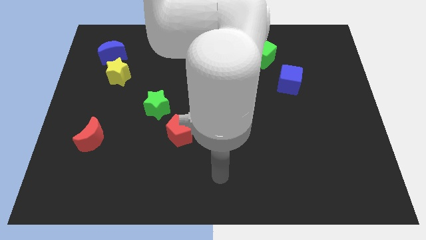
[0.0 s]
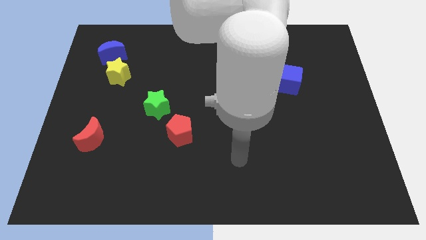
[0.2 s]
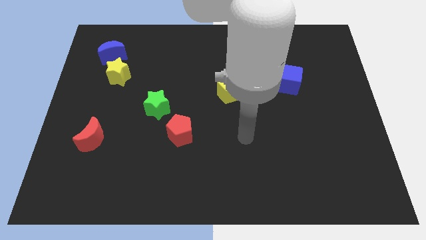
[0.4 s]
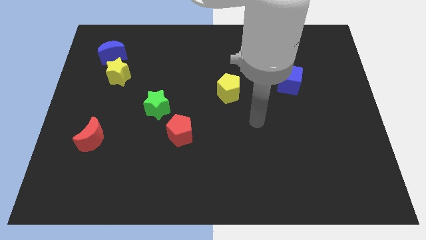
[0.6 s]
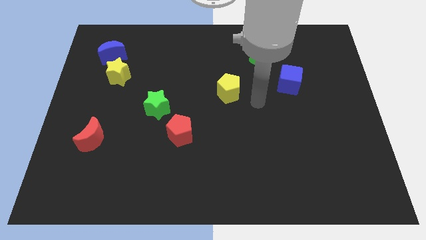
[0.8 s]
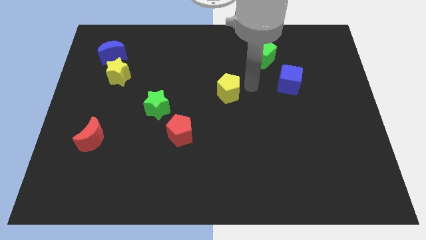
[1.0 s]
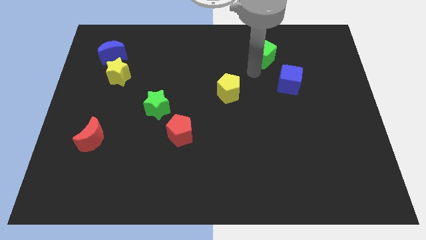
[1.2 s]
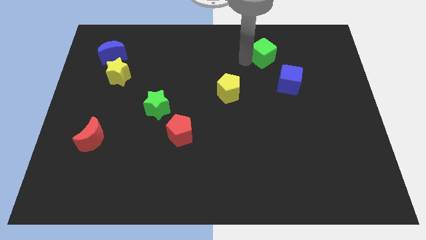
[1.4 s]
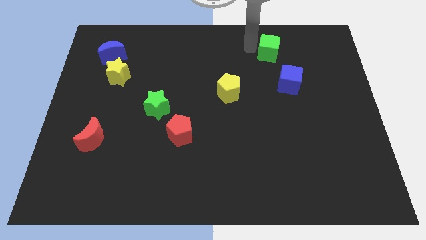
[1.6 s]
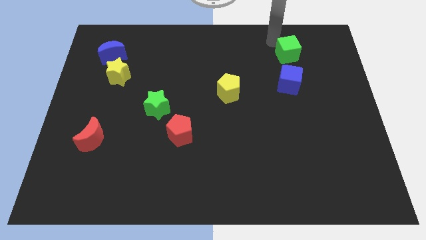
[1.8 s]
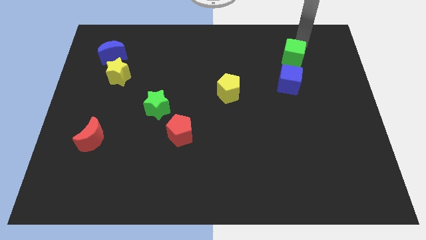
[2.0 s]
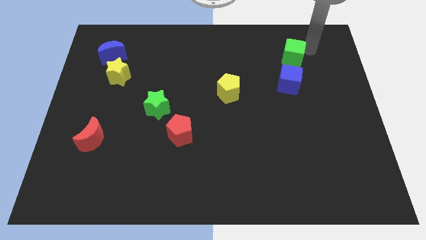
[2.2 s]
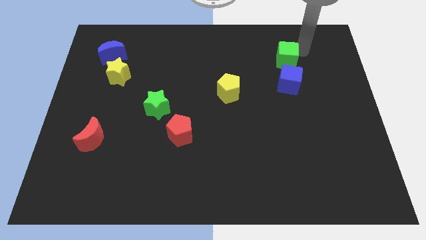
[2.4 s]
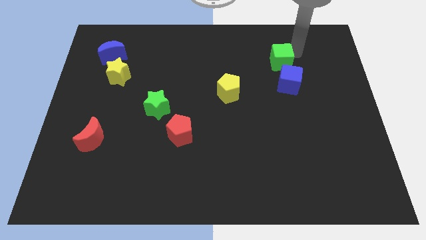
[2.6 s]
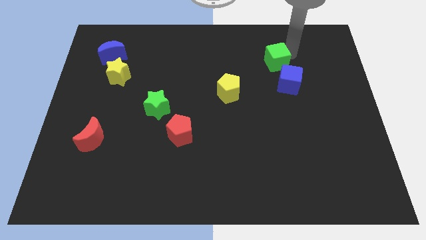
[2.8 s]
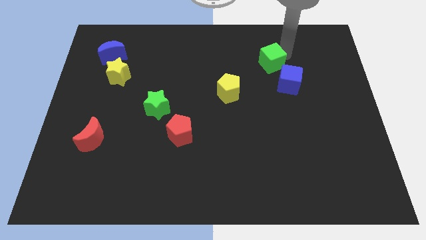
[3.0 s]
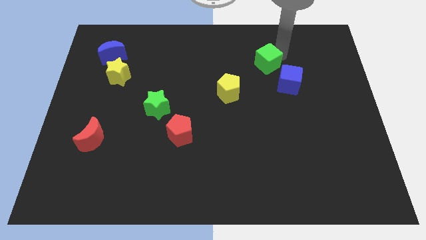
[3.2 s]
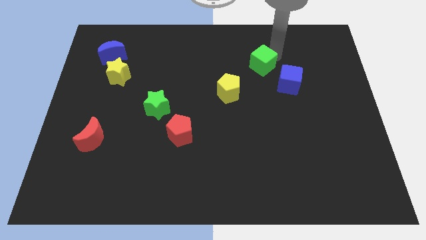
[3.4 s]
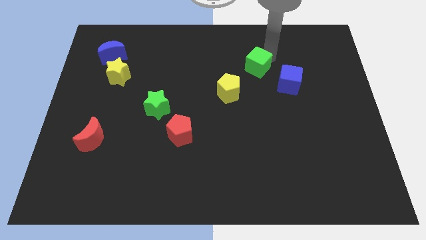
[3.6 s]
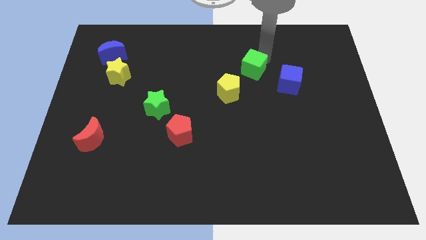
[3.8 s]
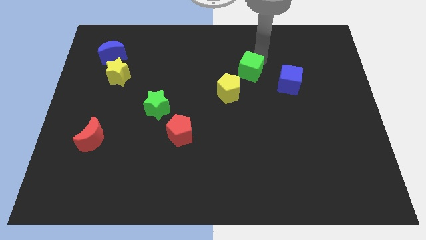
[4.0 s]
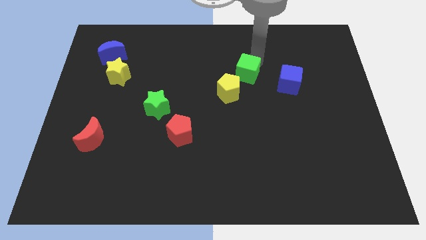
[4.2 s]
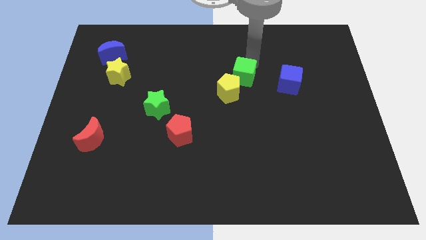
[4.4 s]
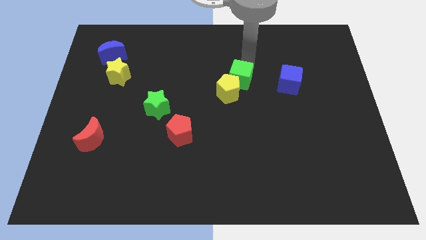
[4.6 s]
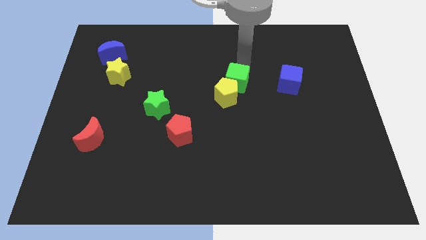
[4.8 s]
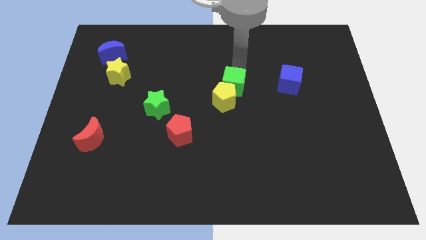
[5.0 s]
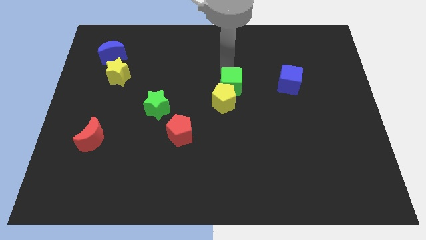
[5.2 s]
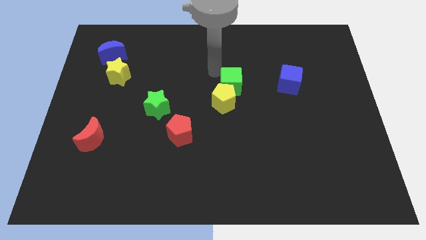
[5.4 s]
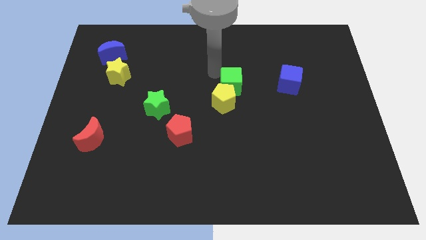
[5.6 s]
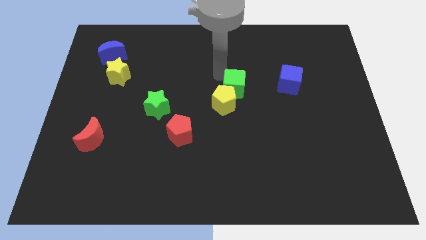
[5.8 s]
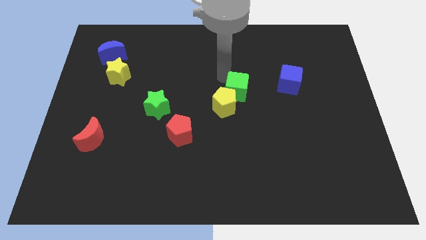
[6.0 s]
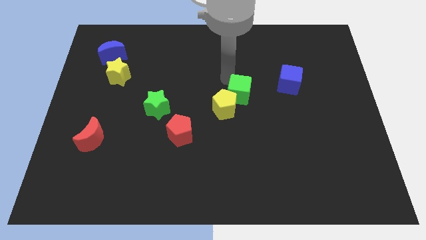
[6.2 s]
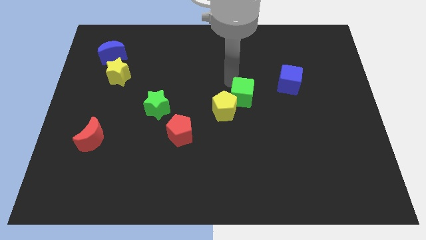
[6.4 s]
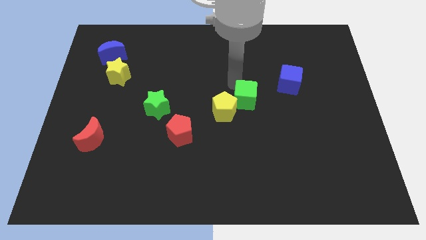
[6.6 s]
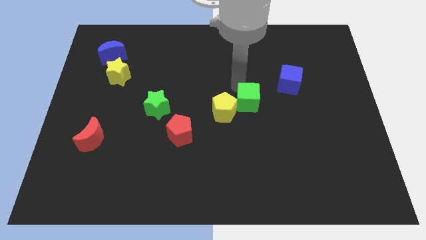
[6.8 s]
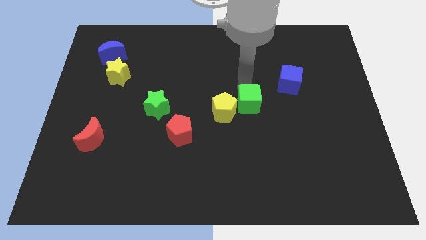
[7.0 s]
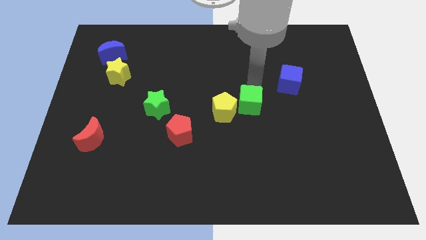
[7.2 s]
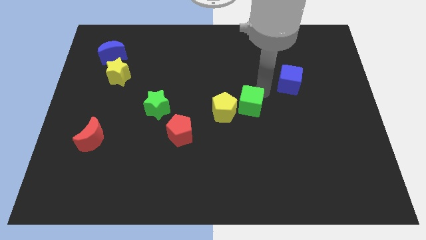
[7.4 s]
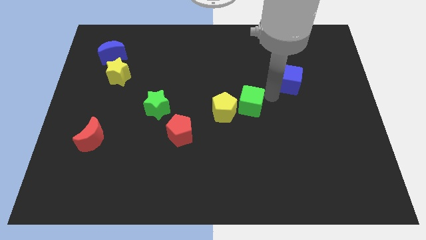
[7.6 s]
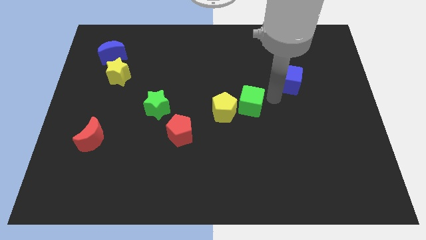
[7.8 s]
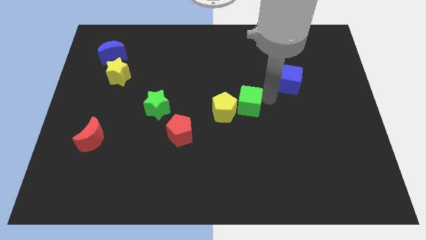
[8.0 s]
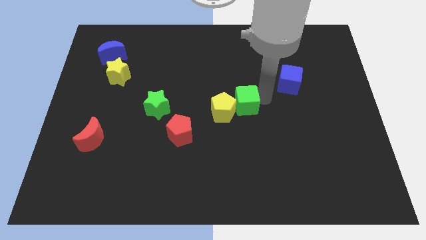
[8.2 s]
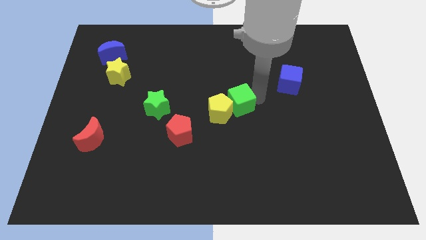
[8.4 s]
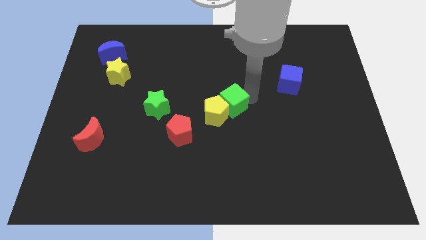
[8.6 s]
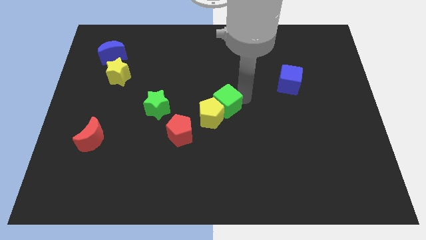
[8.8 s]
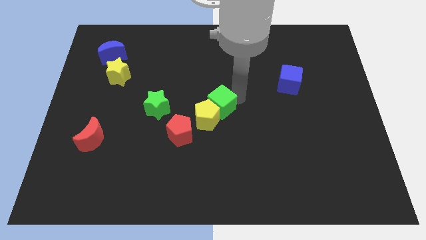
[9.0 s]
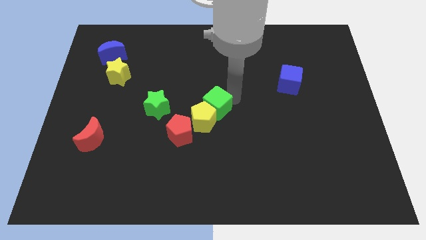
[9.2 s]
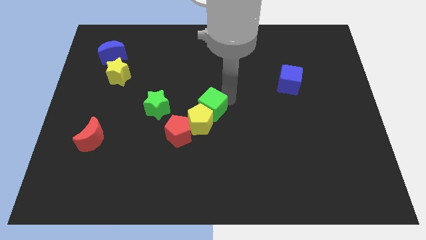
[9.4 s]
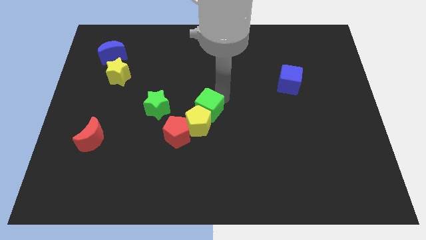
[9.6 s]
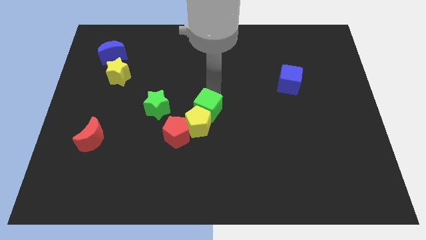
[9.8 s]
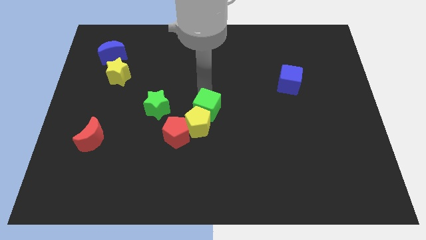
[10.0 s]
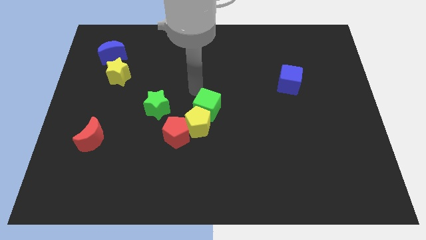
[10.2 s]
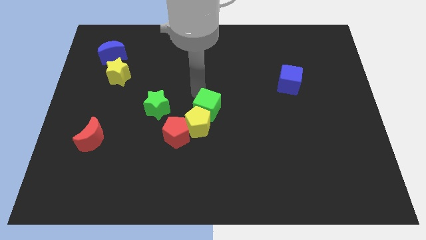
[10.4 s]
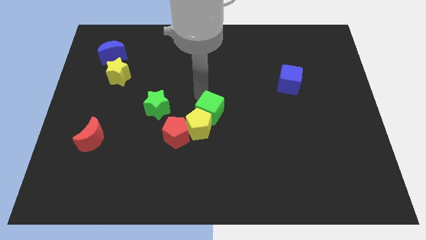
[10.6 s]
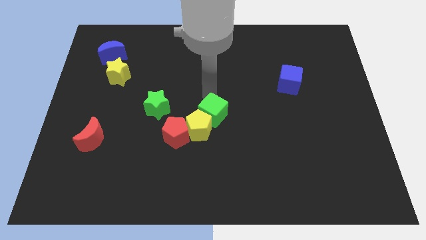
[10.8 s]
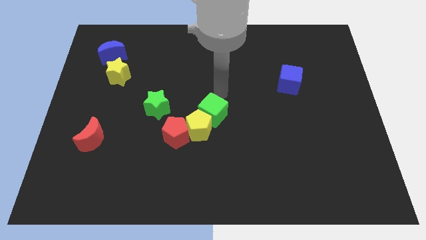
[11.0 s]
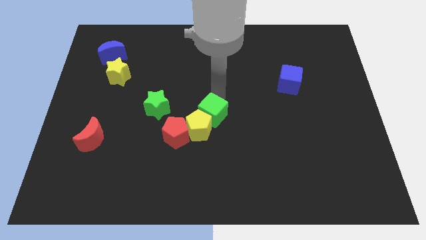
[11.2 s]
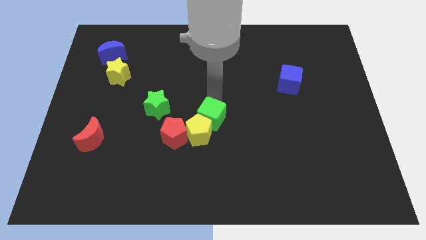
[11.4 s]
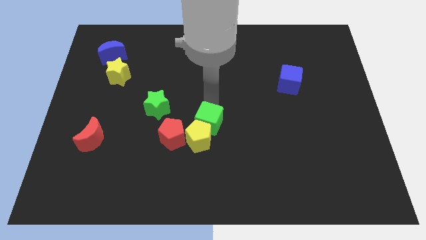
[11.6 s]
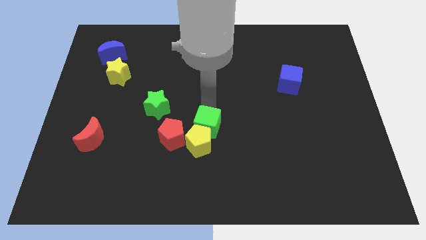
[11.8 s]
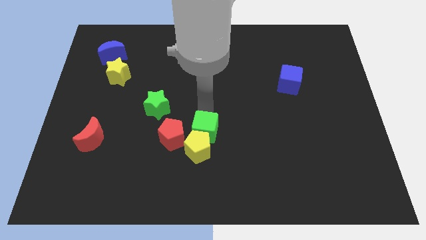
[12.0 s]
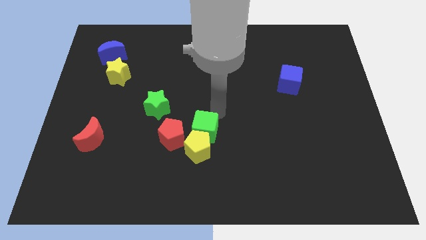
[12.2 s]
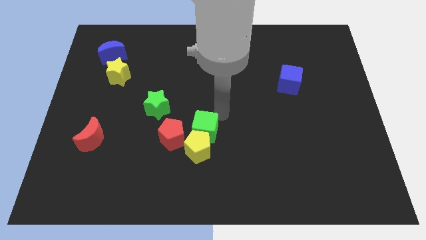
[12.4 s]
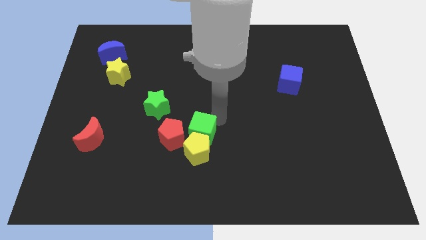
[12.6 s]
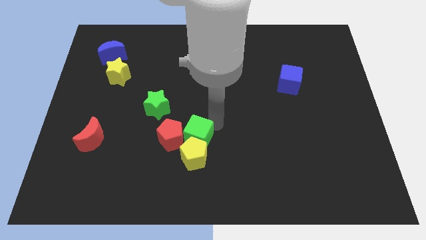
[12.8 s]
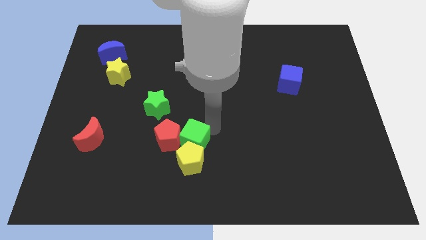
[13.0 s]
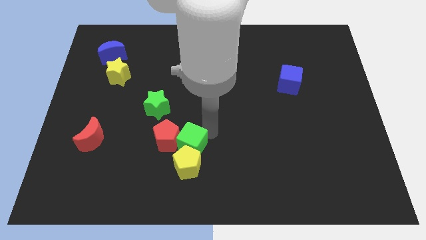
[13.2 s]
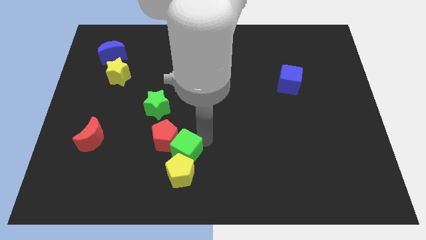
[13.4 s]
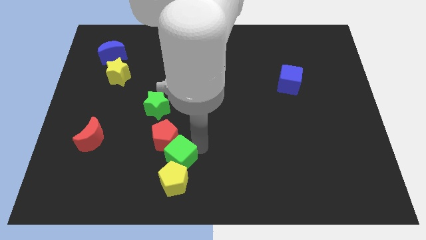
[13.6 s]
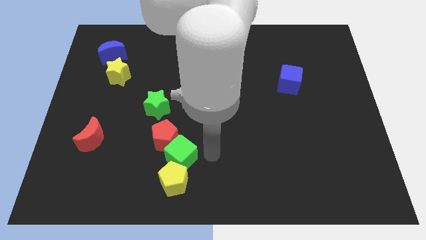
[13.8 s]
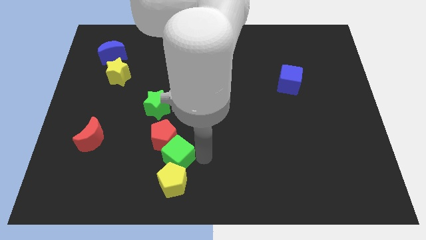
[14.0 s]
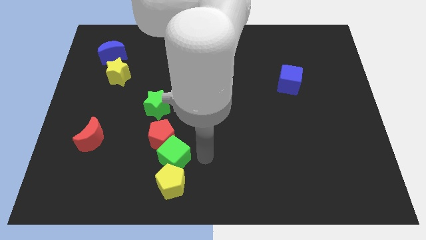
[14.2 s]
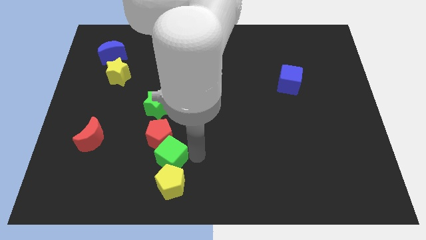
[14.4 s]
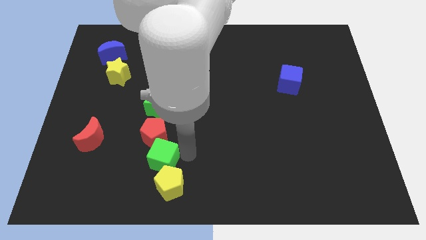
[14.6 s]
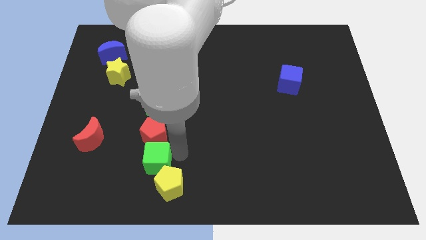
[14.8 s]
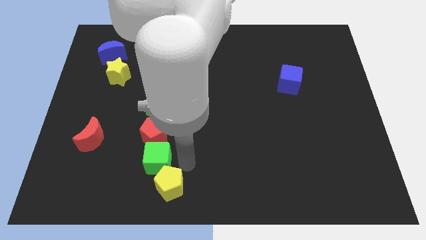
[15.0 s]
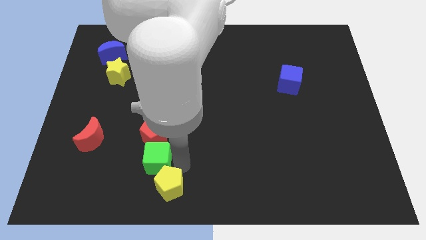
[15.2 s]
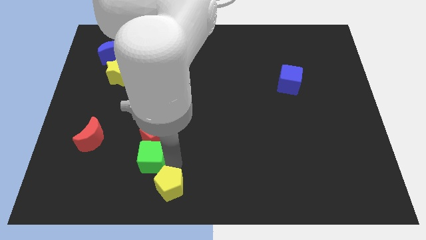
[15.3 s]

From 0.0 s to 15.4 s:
put the green cube to the bottom left of the red pentagon
